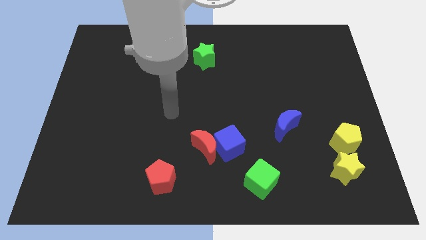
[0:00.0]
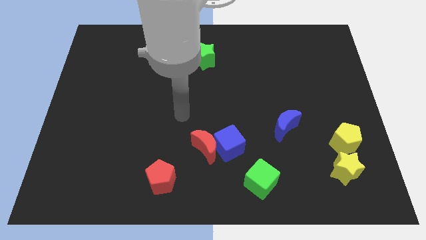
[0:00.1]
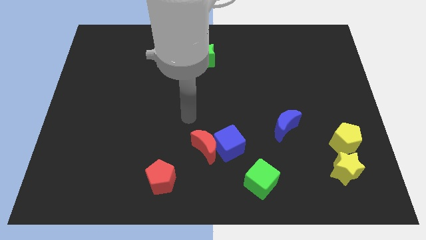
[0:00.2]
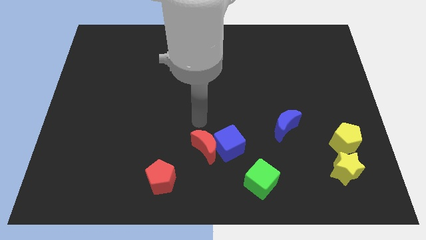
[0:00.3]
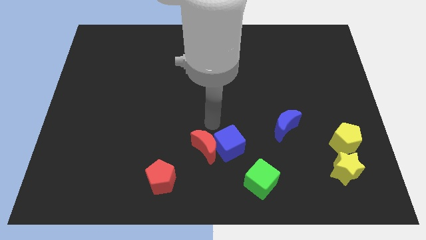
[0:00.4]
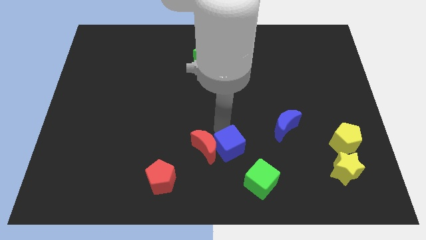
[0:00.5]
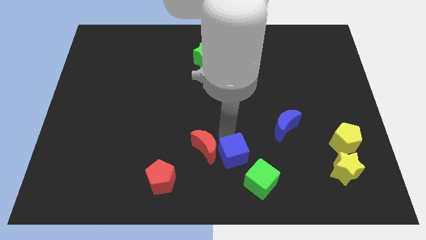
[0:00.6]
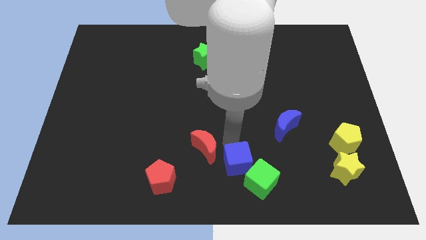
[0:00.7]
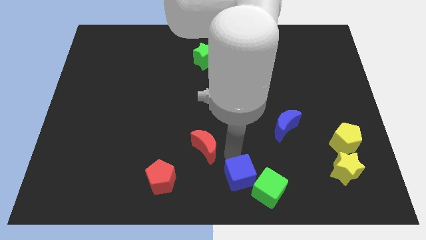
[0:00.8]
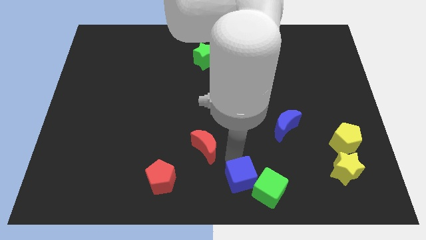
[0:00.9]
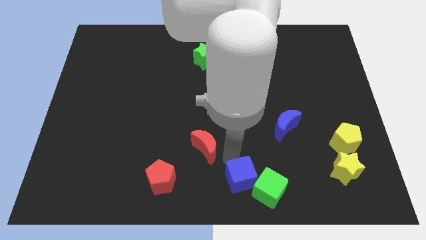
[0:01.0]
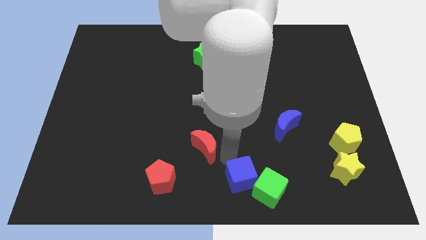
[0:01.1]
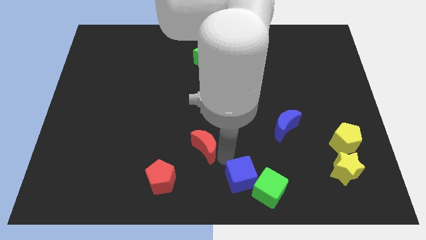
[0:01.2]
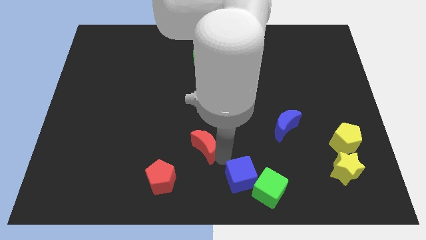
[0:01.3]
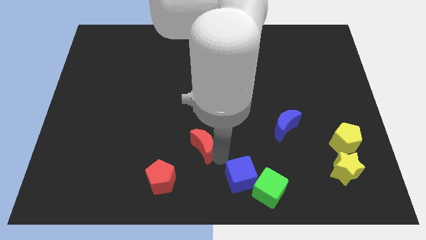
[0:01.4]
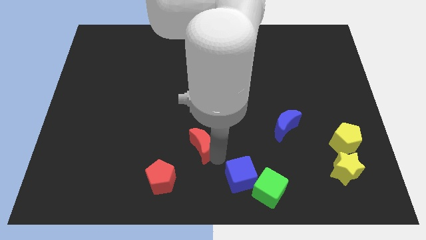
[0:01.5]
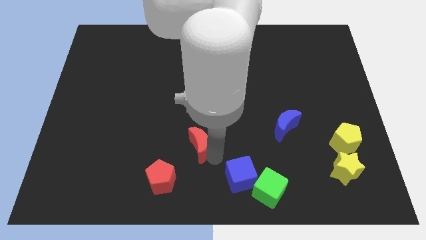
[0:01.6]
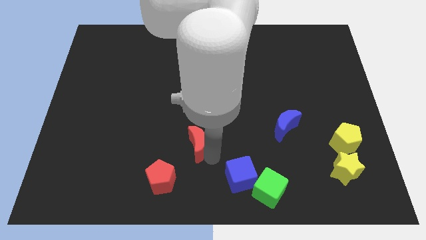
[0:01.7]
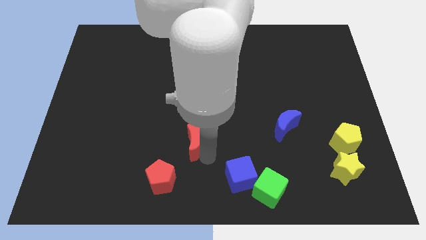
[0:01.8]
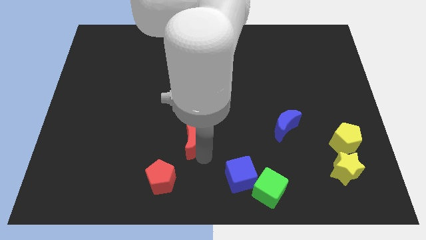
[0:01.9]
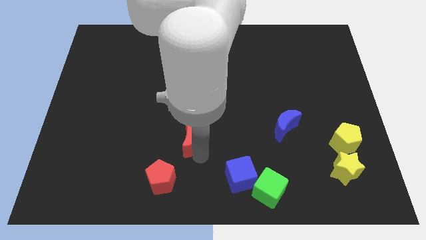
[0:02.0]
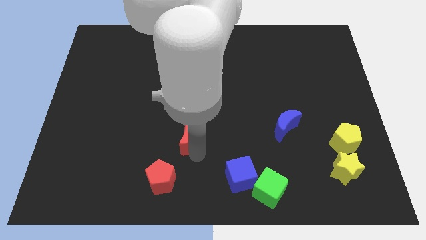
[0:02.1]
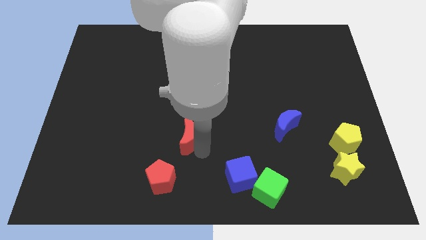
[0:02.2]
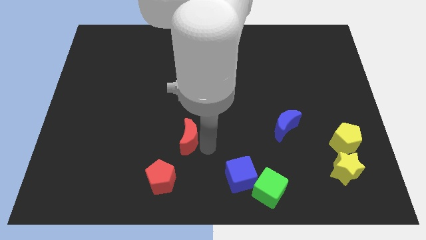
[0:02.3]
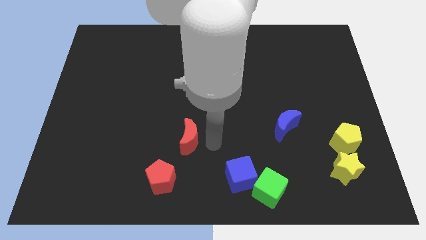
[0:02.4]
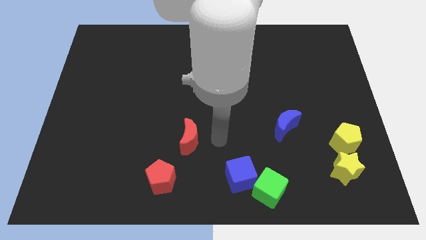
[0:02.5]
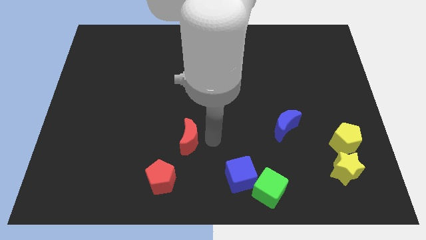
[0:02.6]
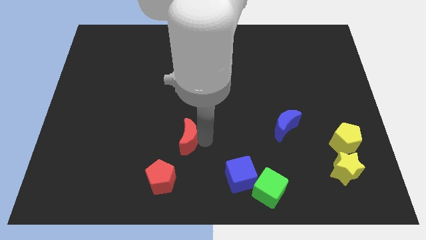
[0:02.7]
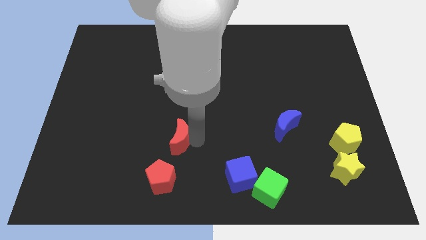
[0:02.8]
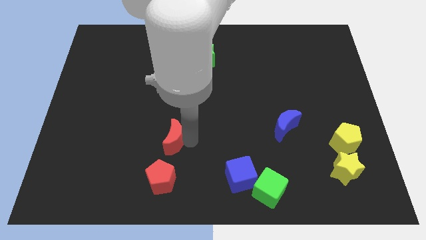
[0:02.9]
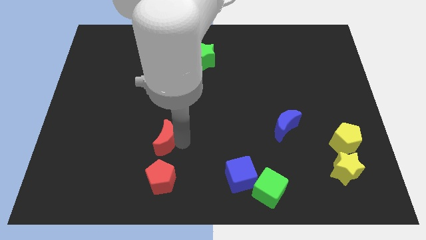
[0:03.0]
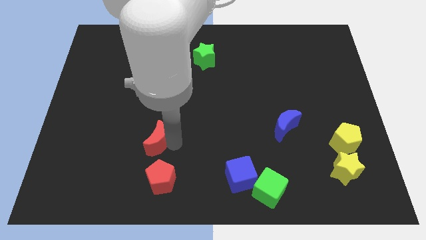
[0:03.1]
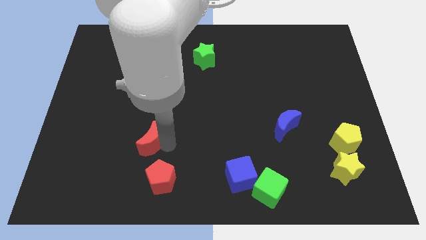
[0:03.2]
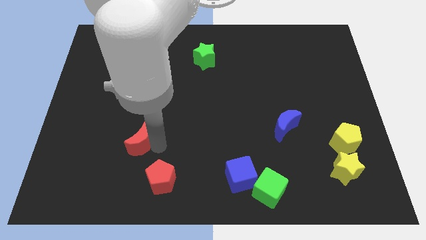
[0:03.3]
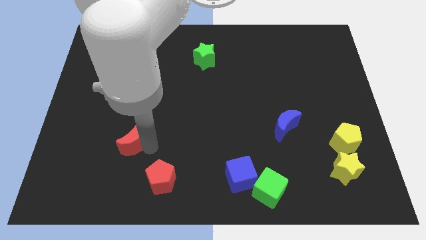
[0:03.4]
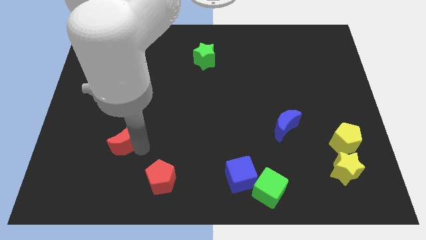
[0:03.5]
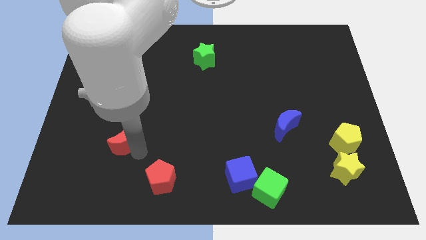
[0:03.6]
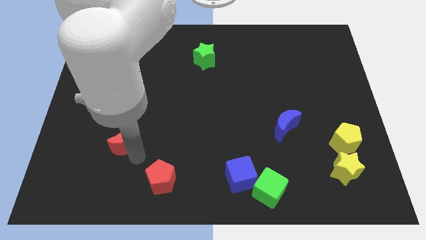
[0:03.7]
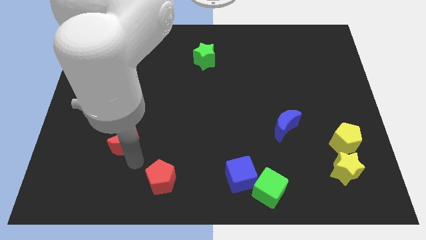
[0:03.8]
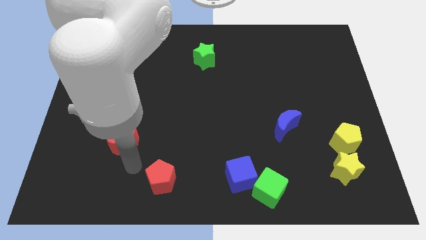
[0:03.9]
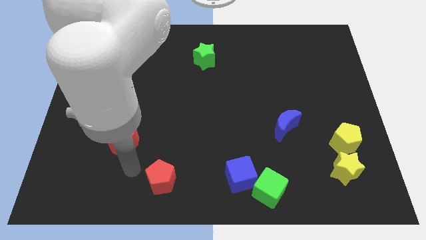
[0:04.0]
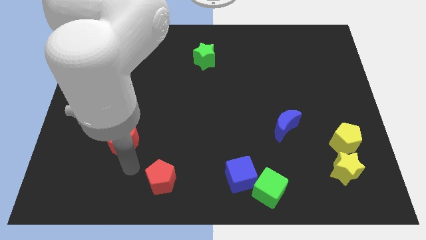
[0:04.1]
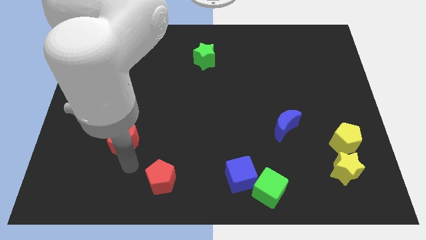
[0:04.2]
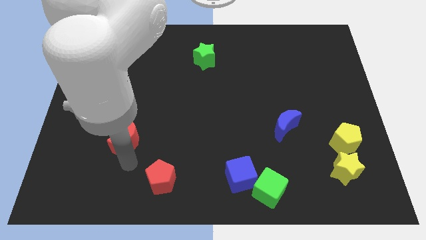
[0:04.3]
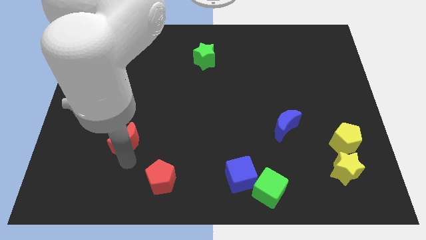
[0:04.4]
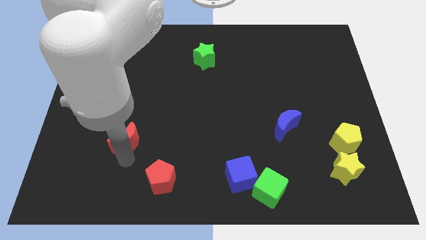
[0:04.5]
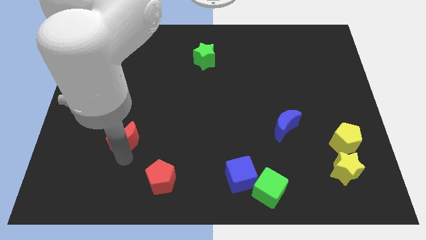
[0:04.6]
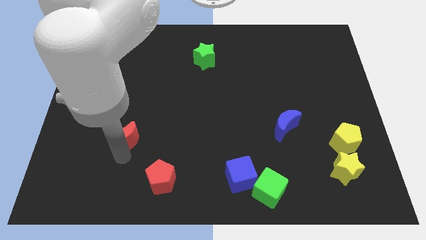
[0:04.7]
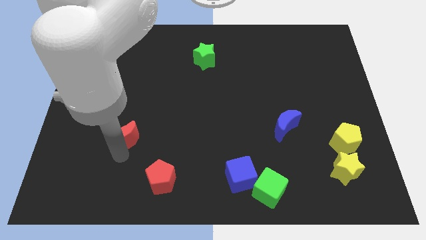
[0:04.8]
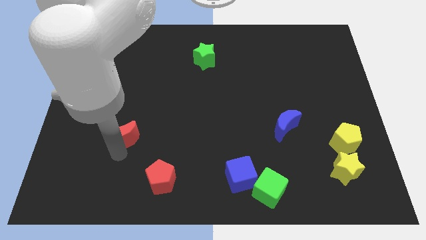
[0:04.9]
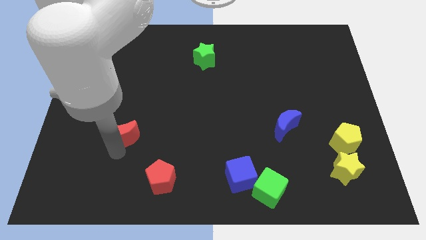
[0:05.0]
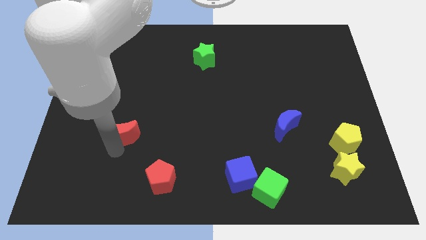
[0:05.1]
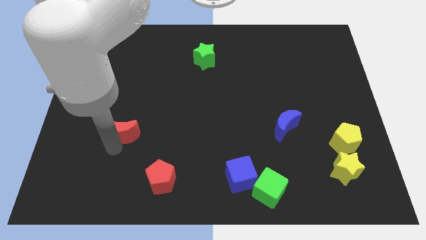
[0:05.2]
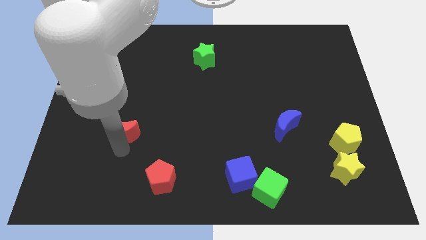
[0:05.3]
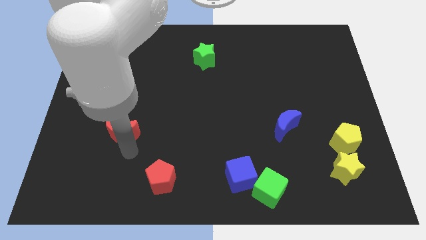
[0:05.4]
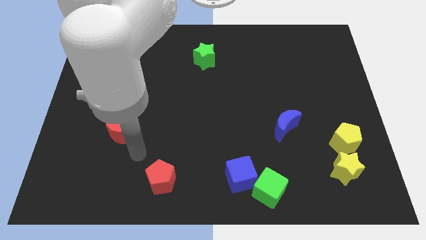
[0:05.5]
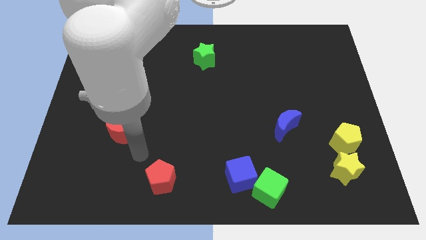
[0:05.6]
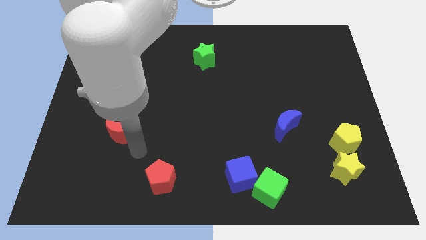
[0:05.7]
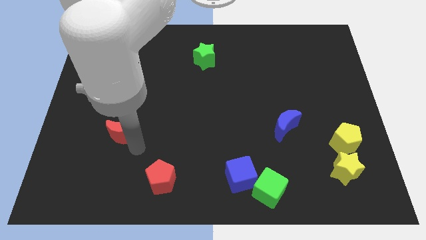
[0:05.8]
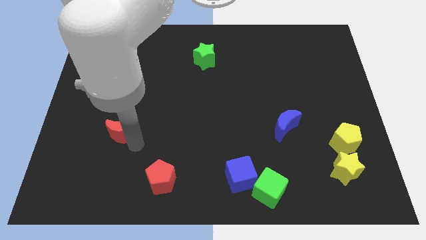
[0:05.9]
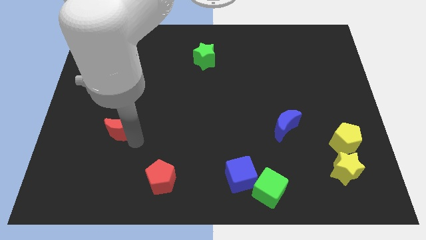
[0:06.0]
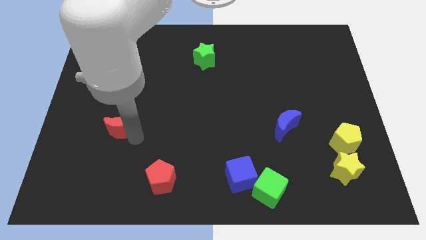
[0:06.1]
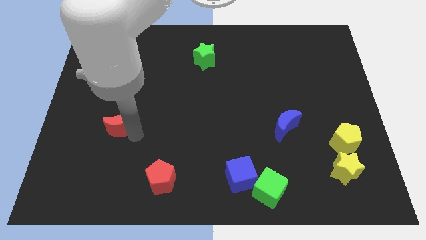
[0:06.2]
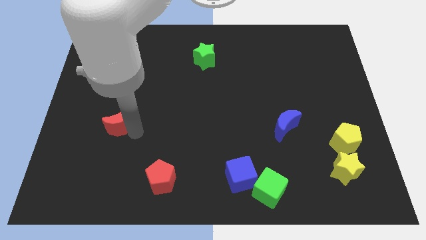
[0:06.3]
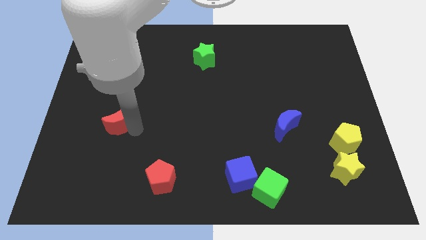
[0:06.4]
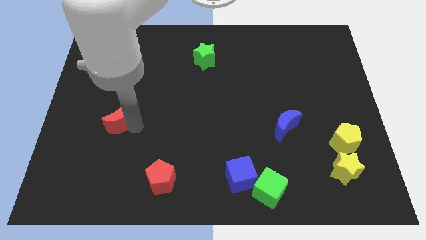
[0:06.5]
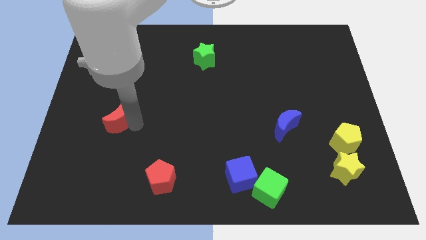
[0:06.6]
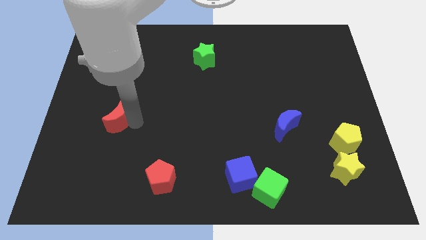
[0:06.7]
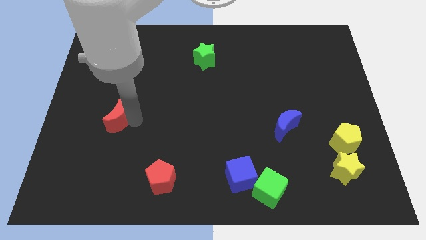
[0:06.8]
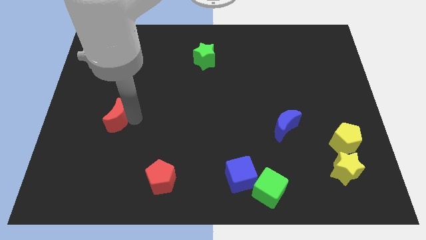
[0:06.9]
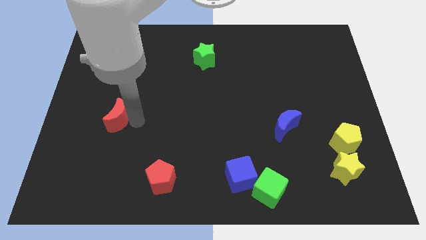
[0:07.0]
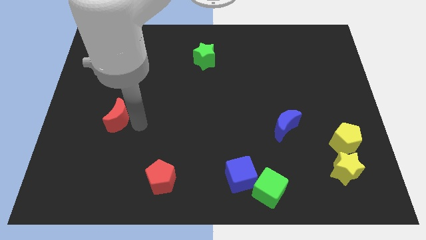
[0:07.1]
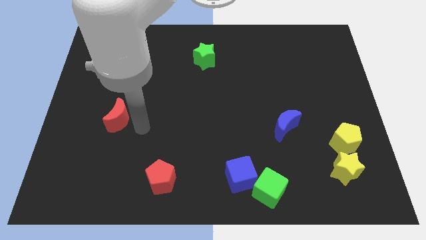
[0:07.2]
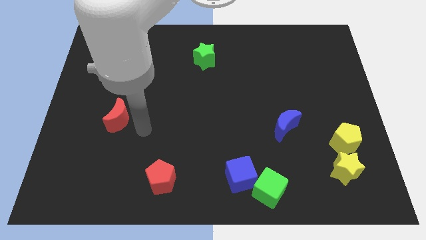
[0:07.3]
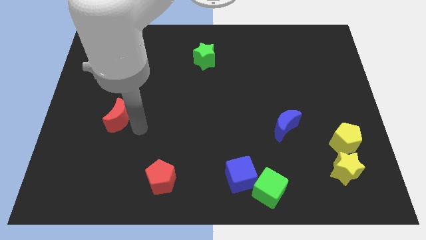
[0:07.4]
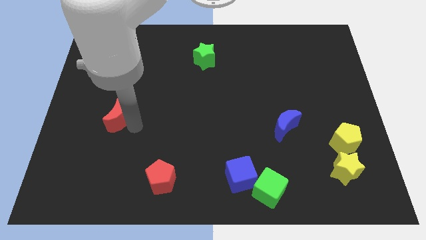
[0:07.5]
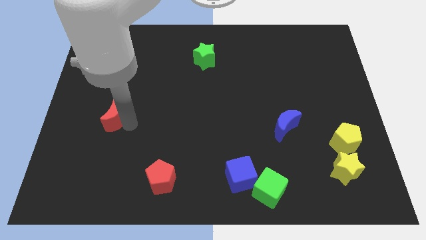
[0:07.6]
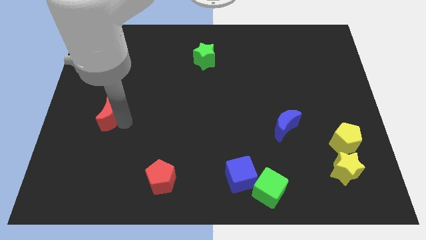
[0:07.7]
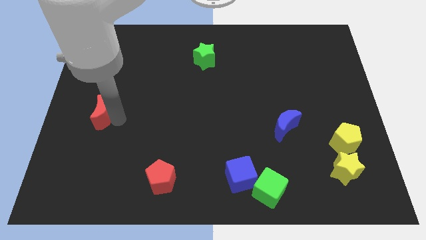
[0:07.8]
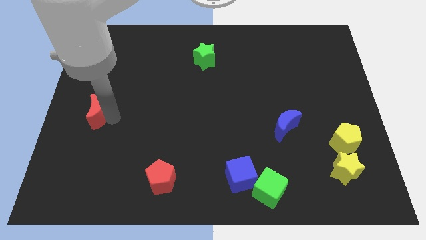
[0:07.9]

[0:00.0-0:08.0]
push the red moon to the left side of the board
